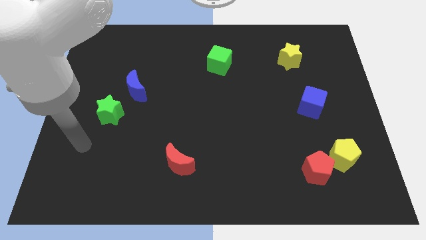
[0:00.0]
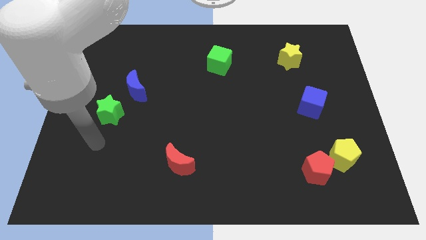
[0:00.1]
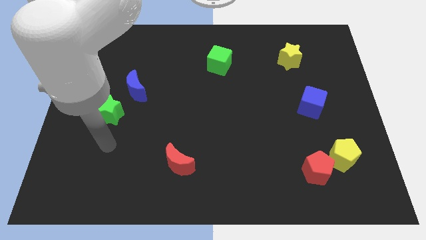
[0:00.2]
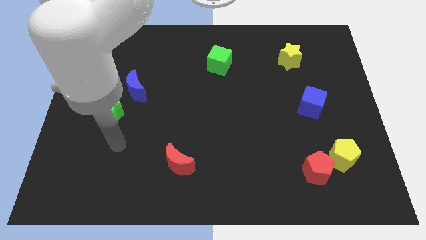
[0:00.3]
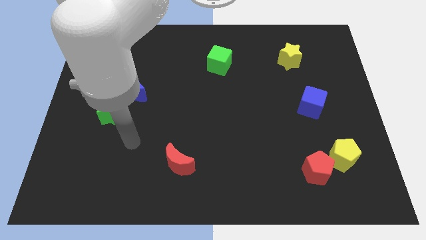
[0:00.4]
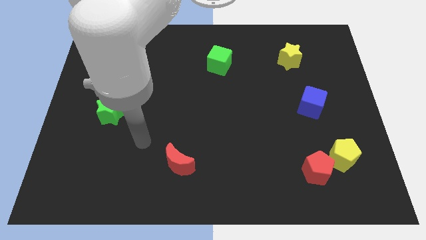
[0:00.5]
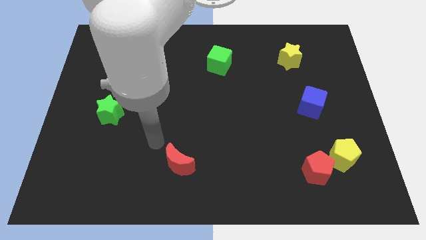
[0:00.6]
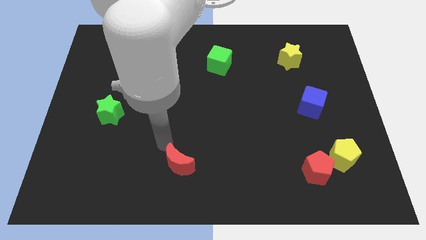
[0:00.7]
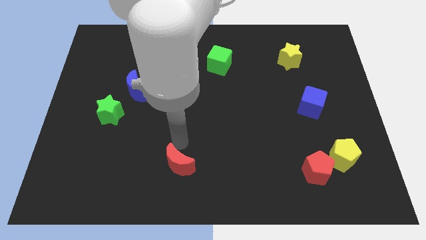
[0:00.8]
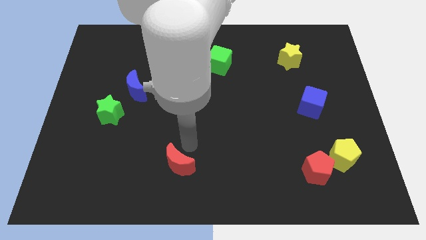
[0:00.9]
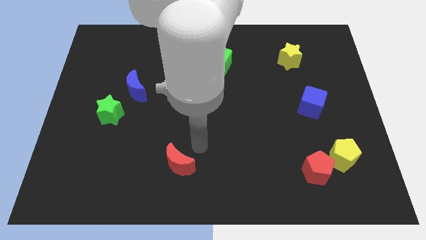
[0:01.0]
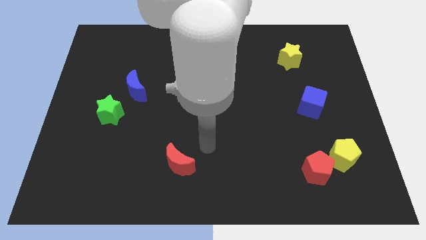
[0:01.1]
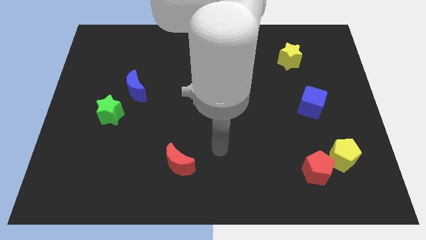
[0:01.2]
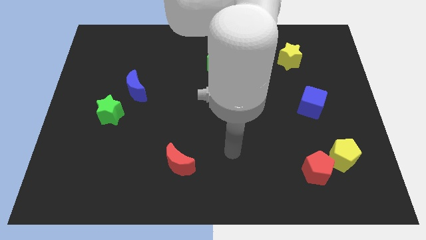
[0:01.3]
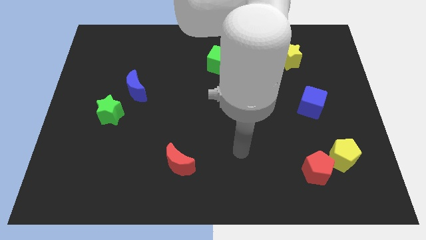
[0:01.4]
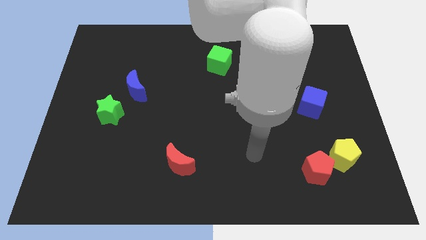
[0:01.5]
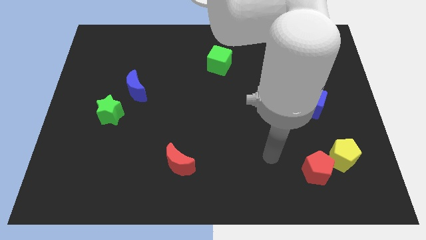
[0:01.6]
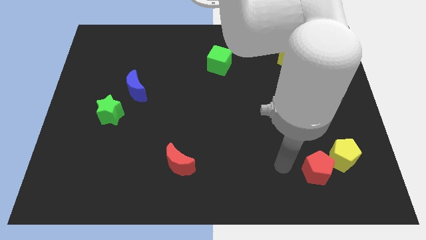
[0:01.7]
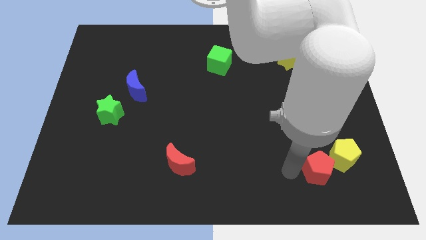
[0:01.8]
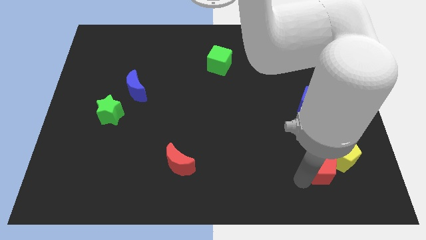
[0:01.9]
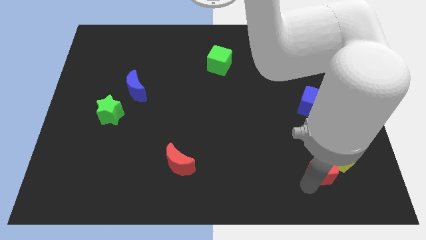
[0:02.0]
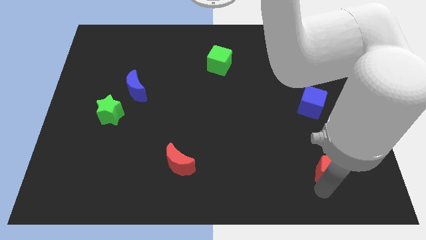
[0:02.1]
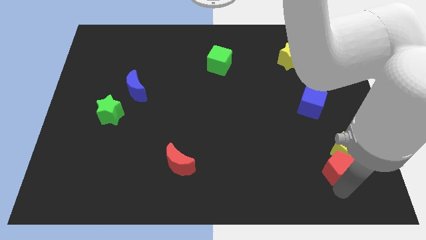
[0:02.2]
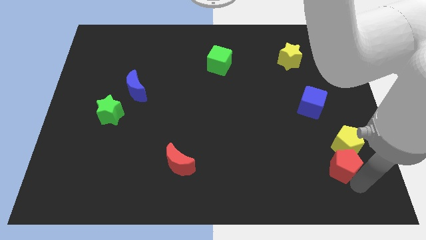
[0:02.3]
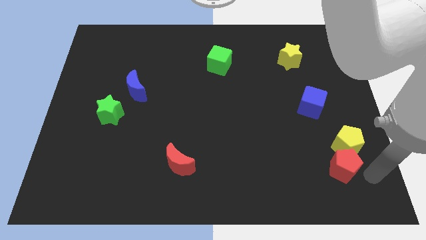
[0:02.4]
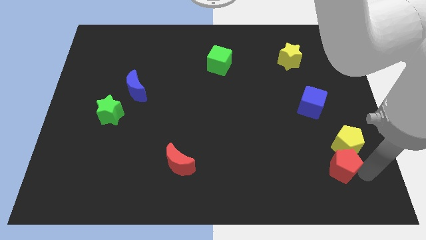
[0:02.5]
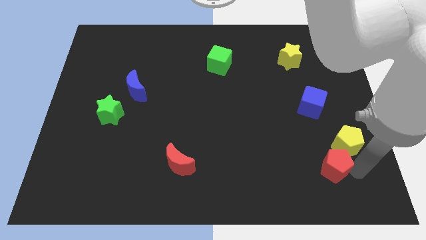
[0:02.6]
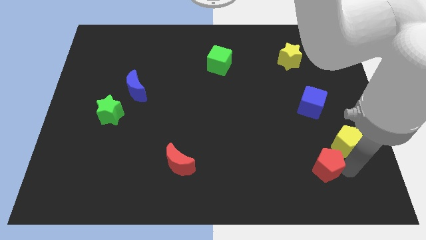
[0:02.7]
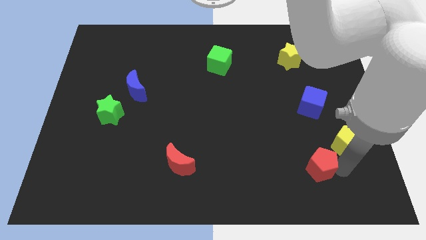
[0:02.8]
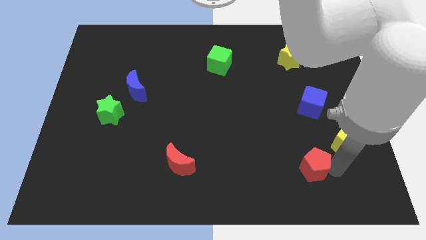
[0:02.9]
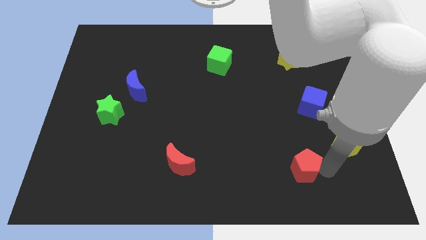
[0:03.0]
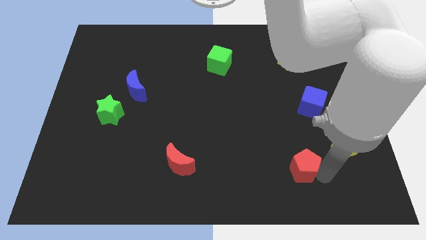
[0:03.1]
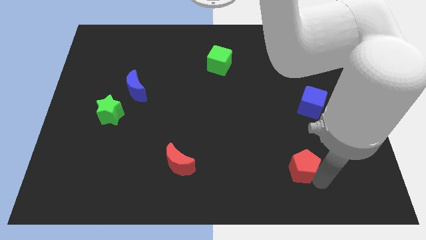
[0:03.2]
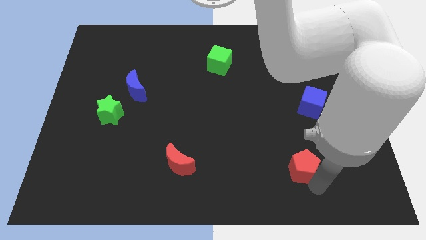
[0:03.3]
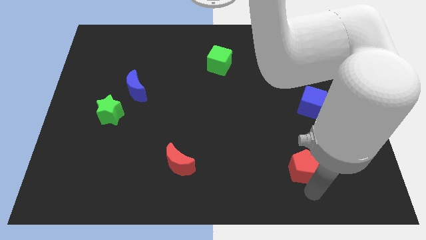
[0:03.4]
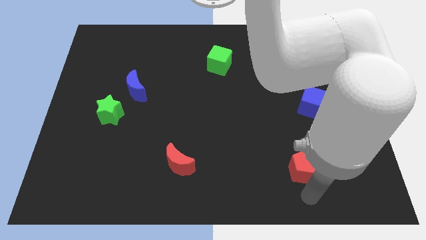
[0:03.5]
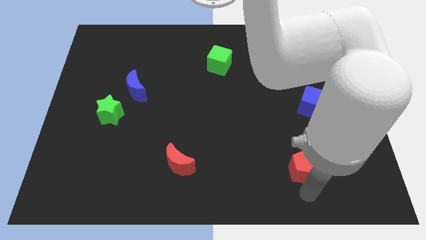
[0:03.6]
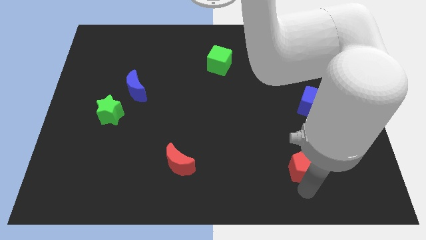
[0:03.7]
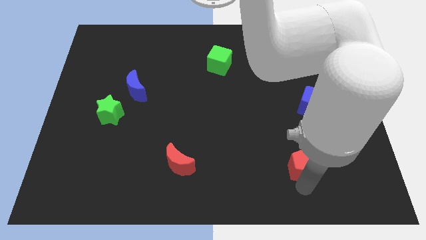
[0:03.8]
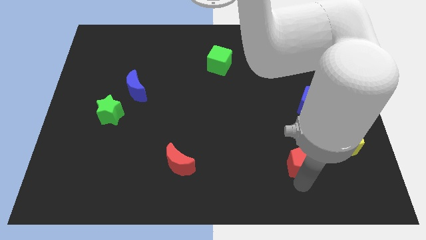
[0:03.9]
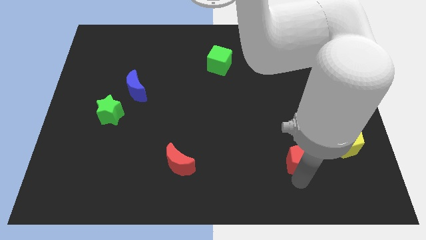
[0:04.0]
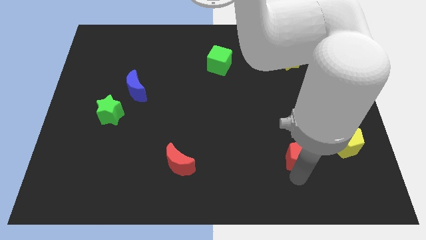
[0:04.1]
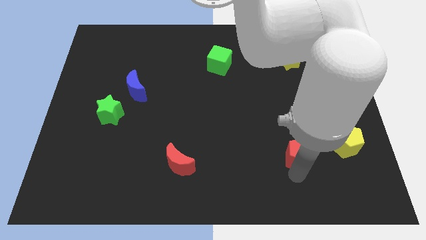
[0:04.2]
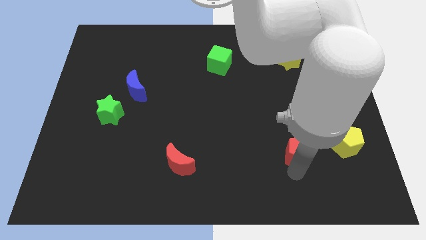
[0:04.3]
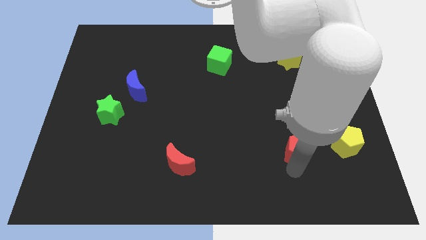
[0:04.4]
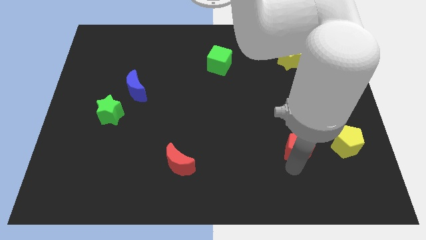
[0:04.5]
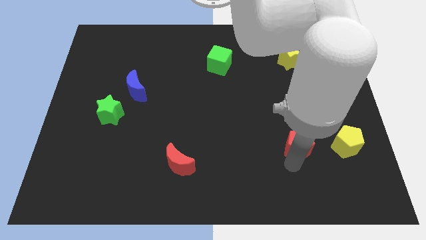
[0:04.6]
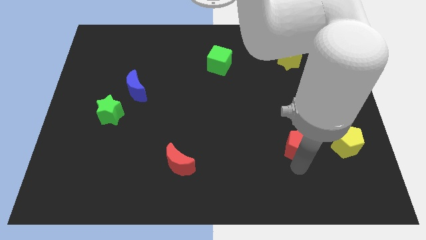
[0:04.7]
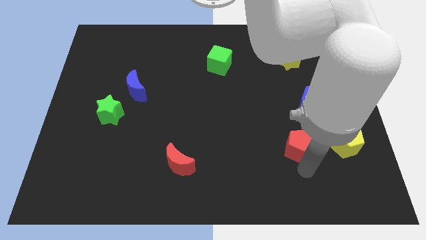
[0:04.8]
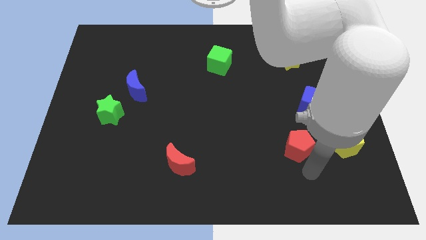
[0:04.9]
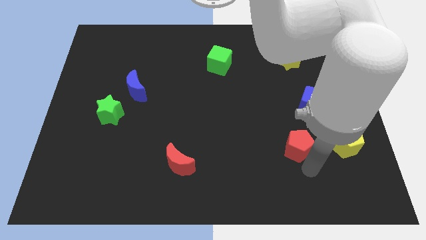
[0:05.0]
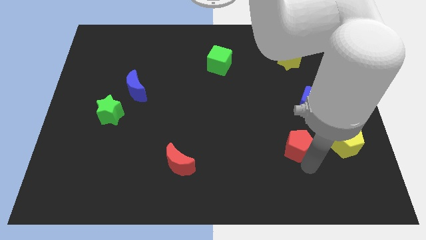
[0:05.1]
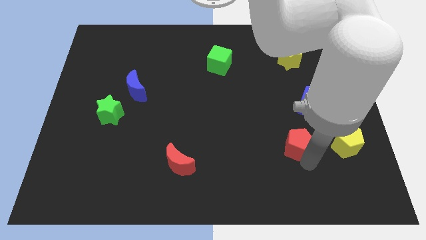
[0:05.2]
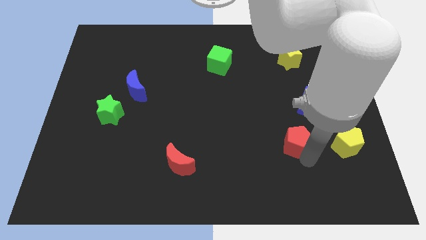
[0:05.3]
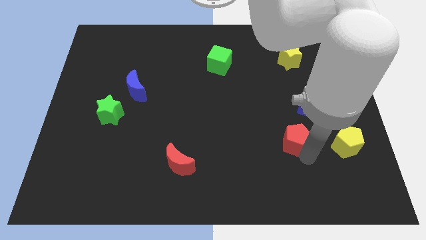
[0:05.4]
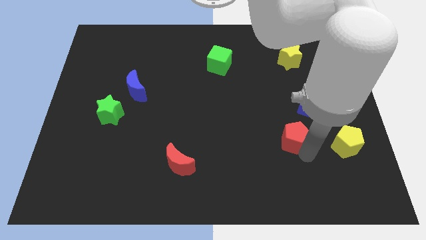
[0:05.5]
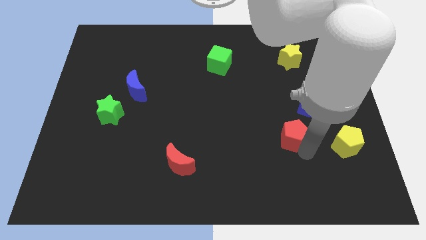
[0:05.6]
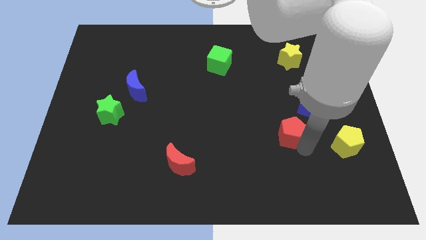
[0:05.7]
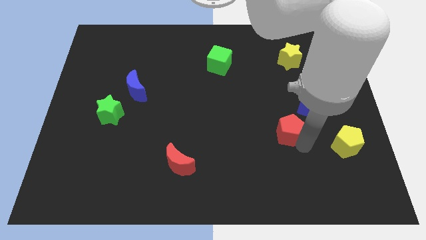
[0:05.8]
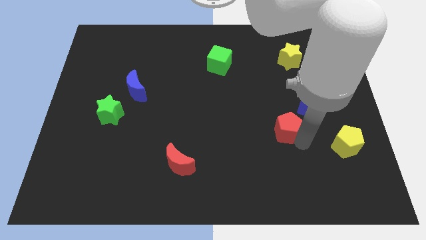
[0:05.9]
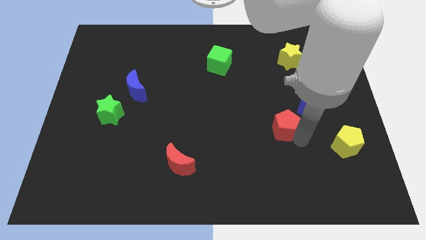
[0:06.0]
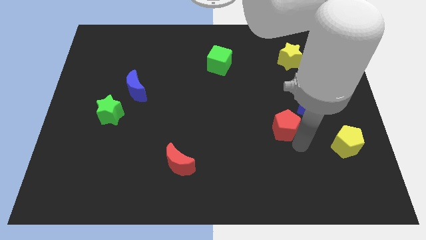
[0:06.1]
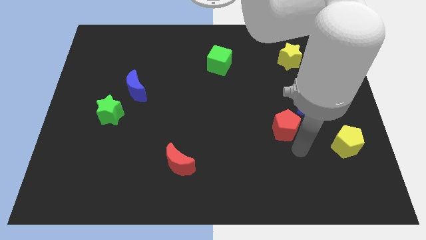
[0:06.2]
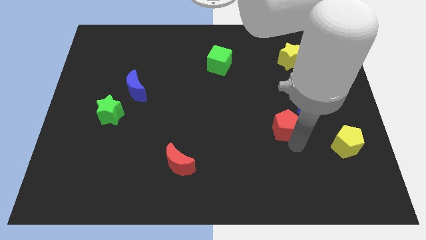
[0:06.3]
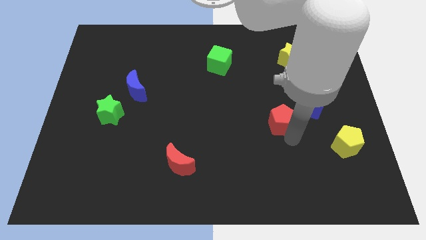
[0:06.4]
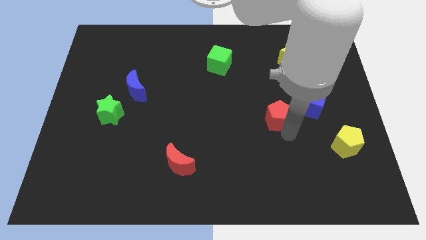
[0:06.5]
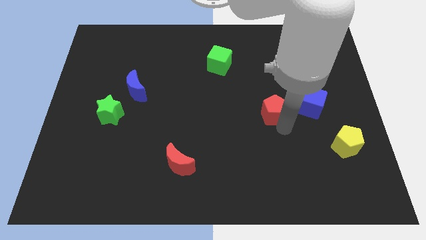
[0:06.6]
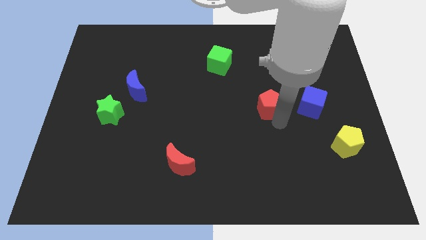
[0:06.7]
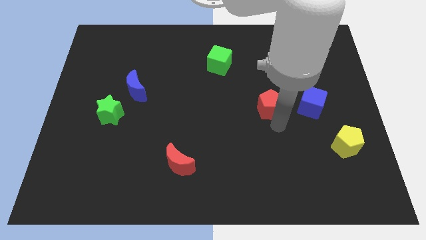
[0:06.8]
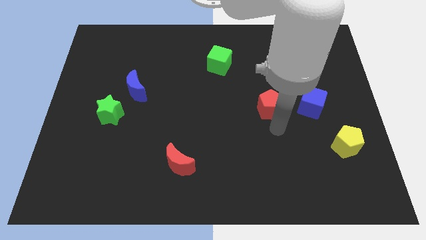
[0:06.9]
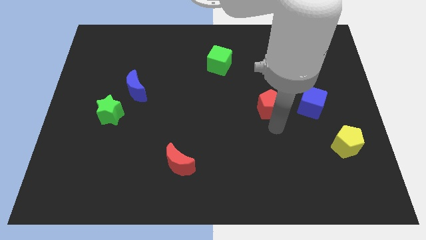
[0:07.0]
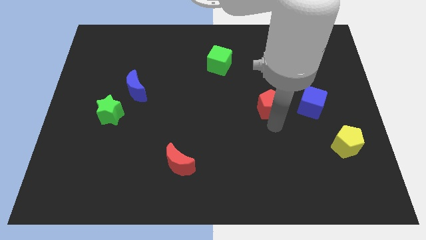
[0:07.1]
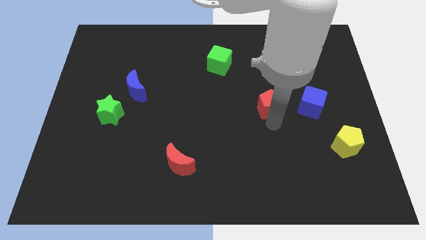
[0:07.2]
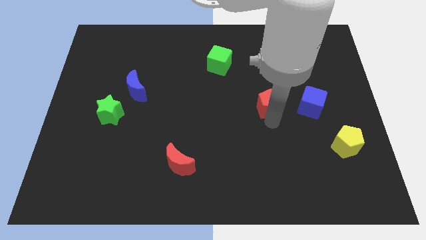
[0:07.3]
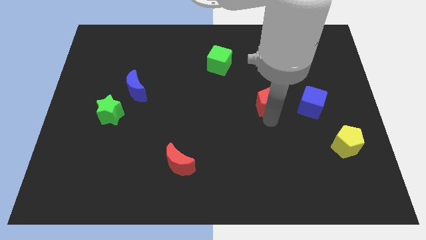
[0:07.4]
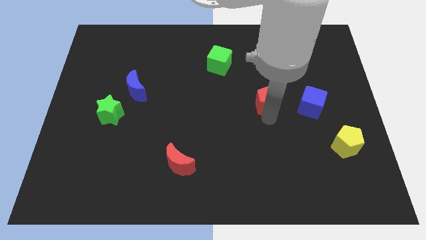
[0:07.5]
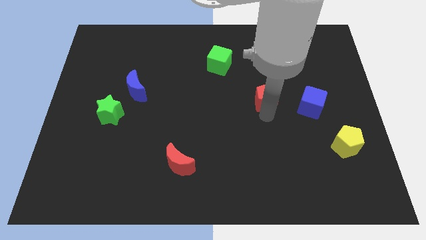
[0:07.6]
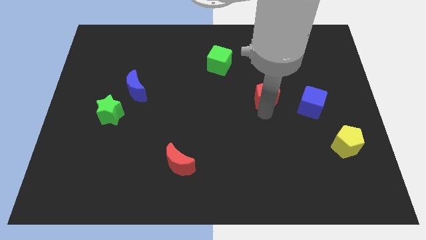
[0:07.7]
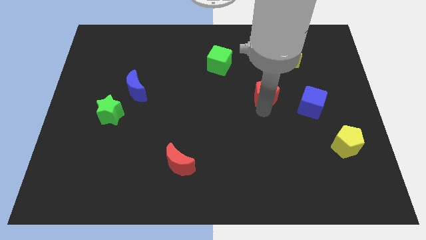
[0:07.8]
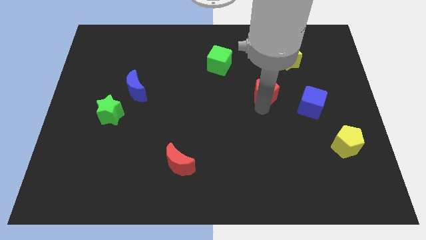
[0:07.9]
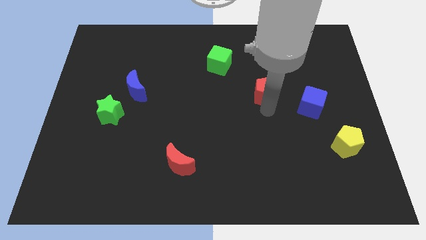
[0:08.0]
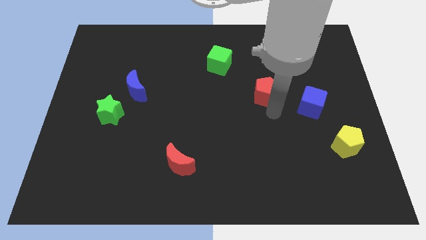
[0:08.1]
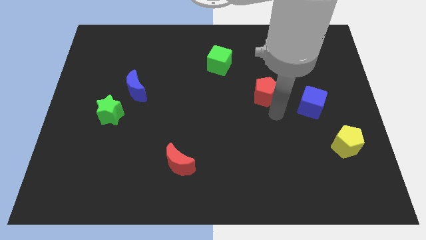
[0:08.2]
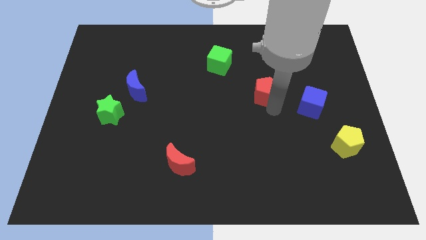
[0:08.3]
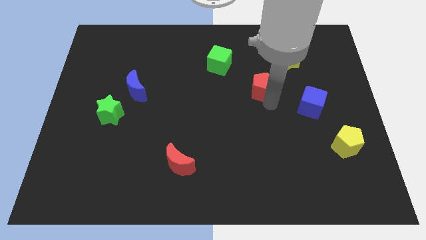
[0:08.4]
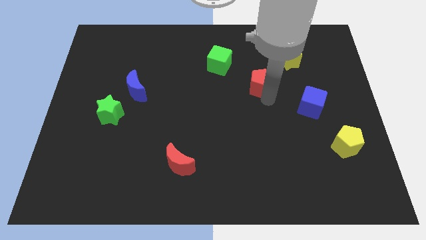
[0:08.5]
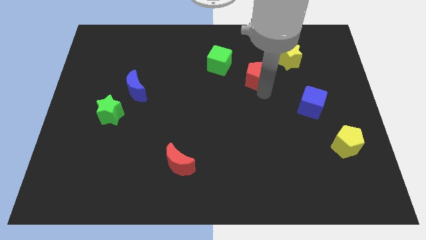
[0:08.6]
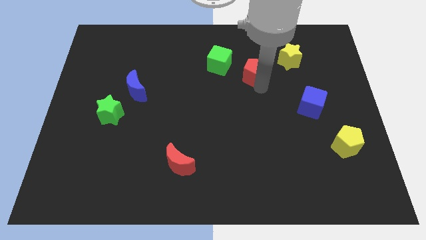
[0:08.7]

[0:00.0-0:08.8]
put the red pentagon left of the yellow star
